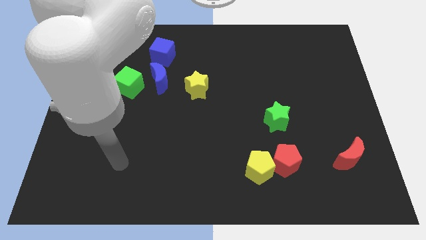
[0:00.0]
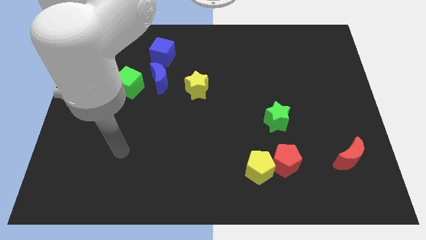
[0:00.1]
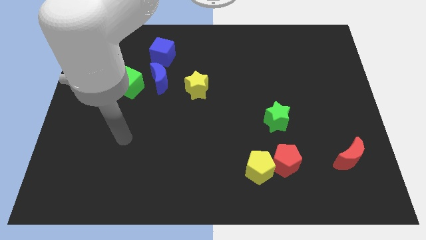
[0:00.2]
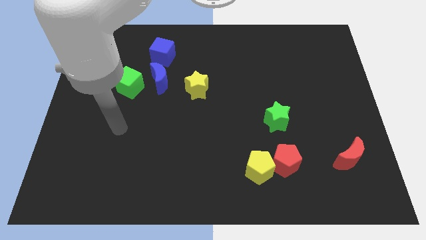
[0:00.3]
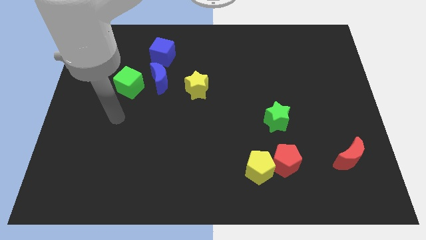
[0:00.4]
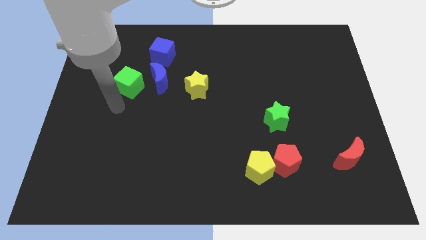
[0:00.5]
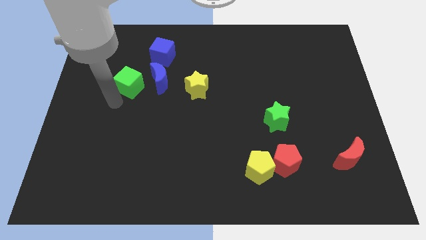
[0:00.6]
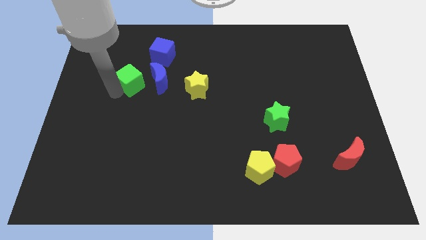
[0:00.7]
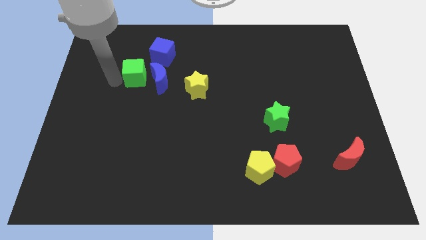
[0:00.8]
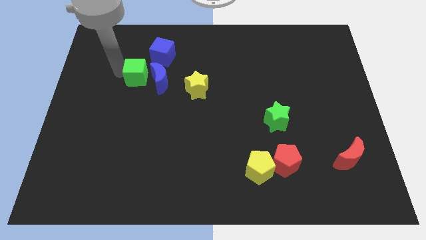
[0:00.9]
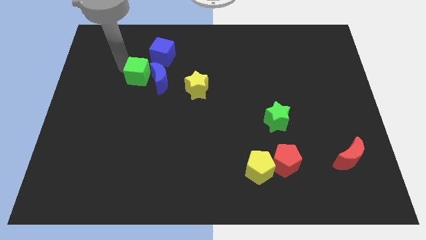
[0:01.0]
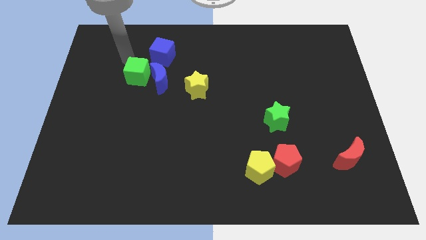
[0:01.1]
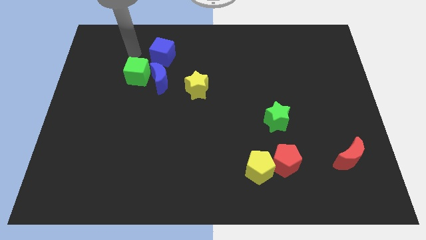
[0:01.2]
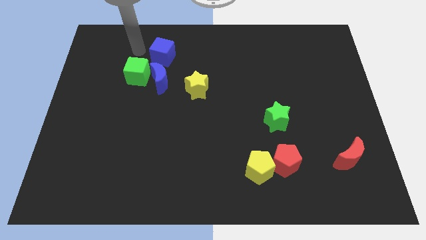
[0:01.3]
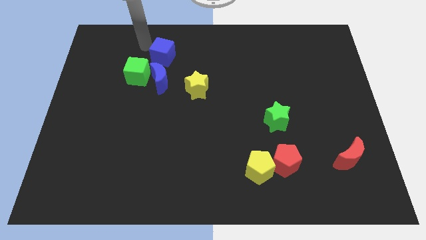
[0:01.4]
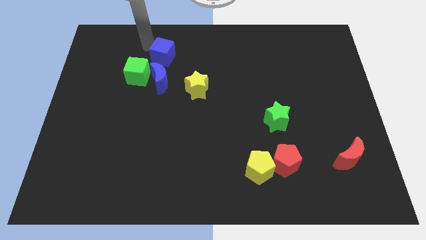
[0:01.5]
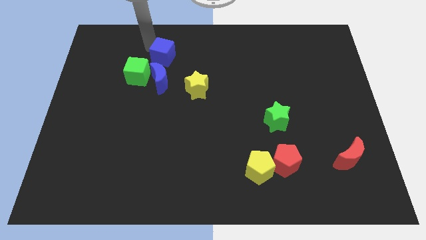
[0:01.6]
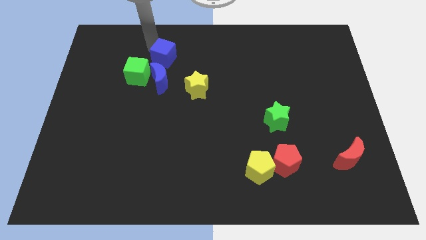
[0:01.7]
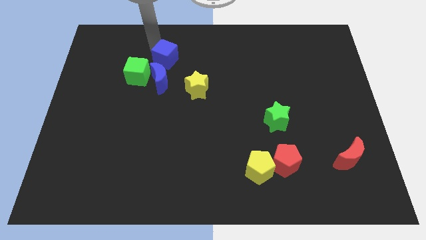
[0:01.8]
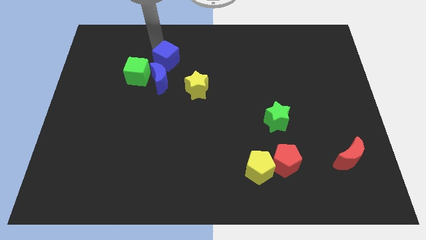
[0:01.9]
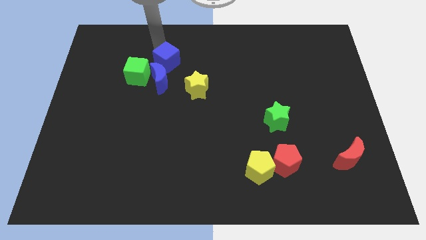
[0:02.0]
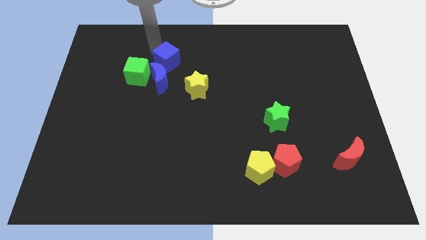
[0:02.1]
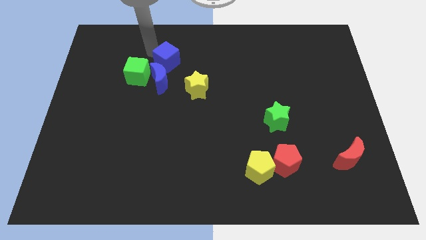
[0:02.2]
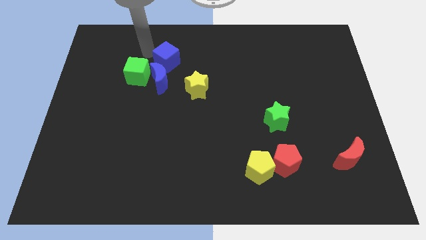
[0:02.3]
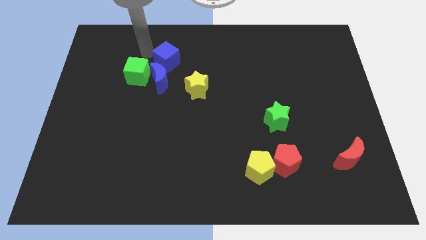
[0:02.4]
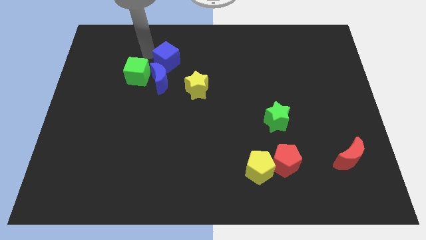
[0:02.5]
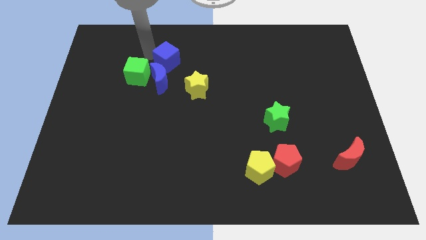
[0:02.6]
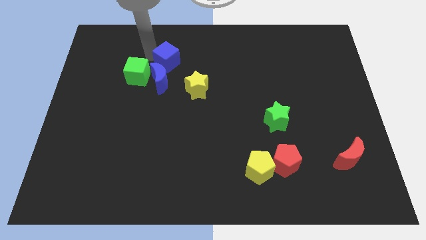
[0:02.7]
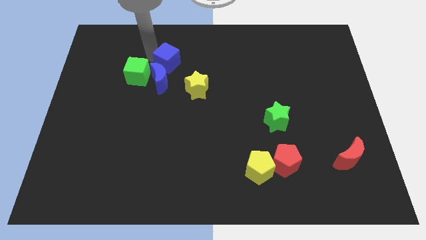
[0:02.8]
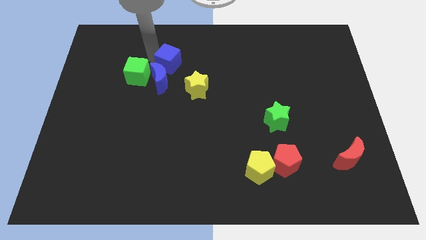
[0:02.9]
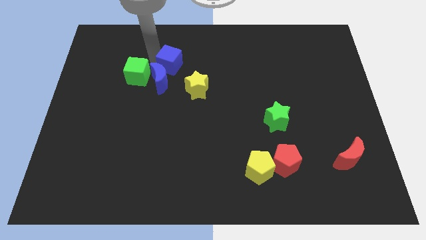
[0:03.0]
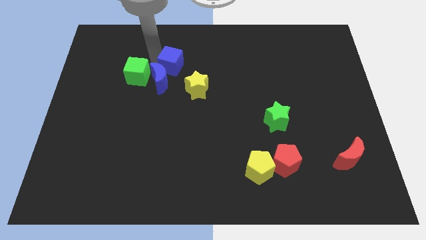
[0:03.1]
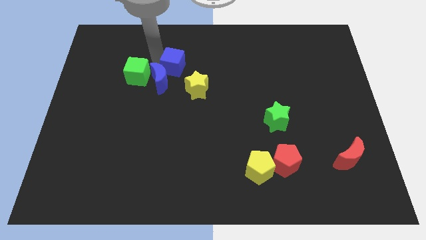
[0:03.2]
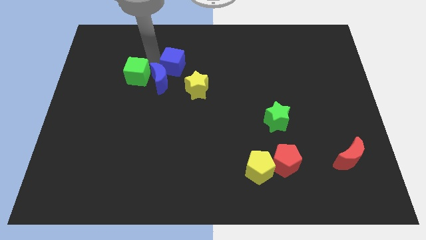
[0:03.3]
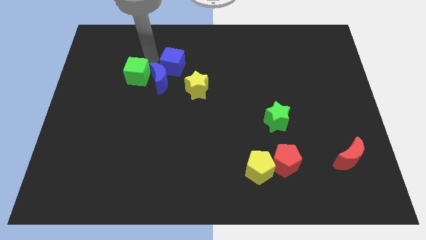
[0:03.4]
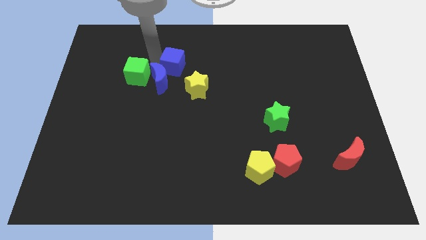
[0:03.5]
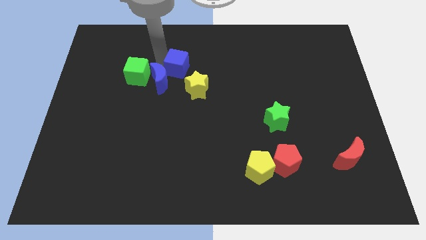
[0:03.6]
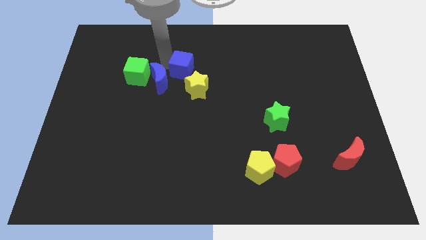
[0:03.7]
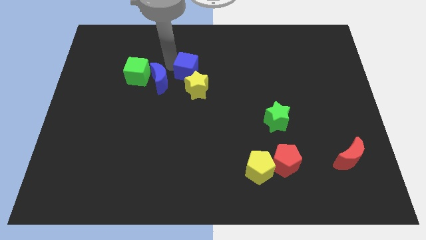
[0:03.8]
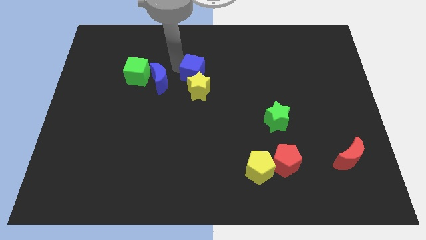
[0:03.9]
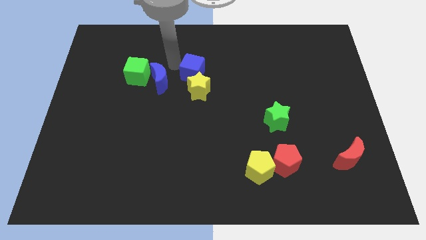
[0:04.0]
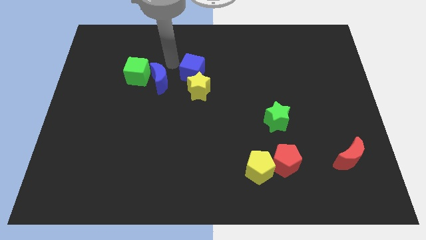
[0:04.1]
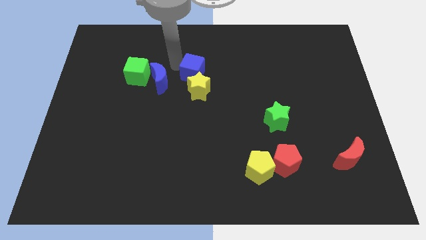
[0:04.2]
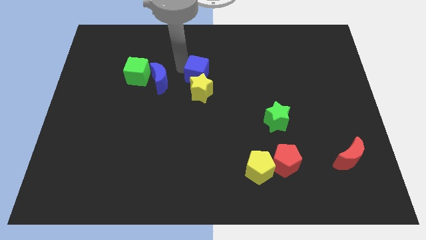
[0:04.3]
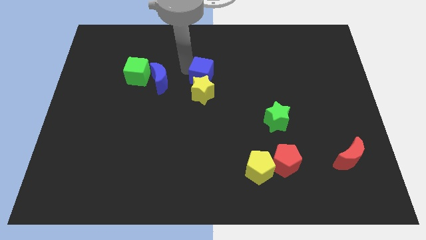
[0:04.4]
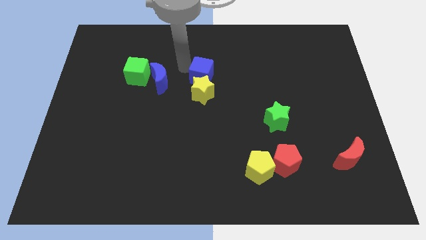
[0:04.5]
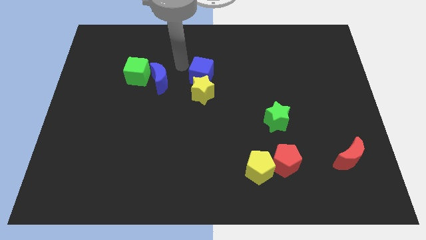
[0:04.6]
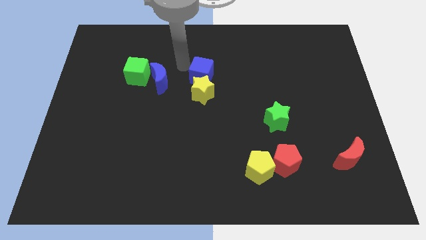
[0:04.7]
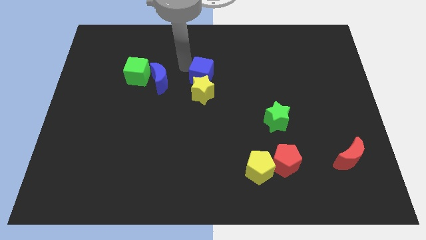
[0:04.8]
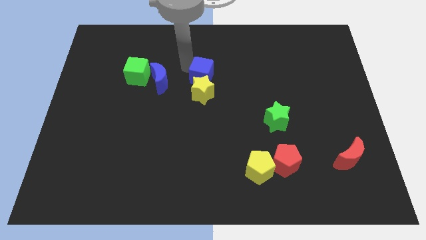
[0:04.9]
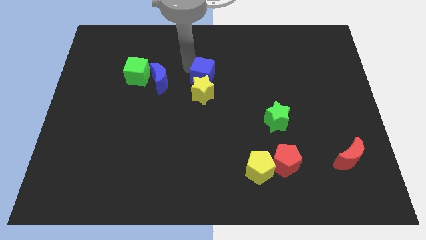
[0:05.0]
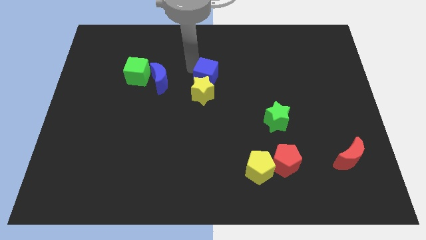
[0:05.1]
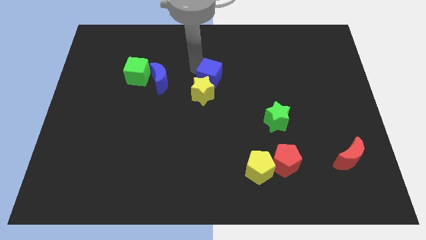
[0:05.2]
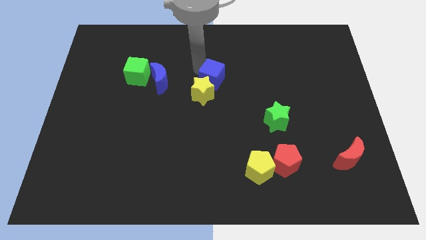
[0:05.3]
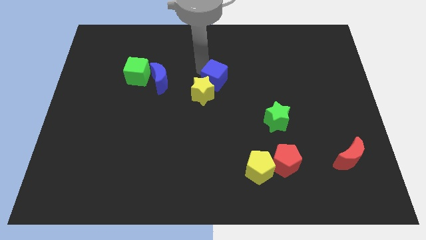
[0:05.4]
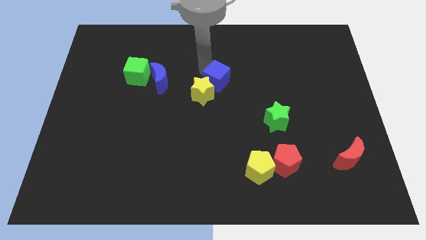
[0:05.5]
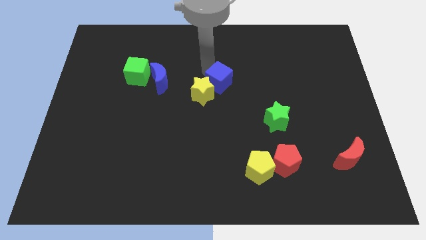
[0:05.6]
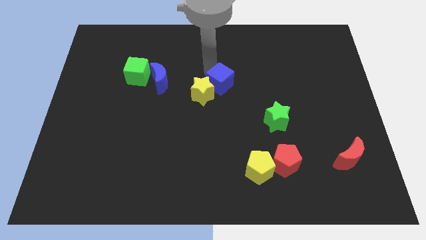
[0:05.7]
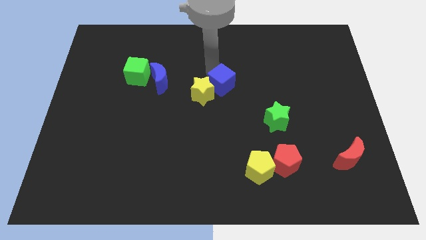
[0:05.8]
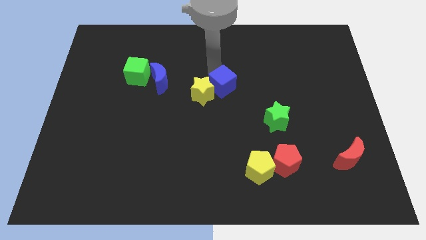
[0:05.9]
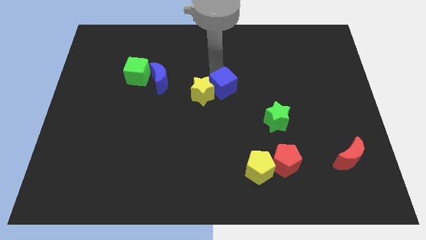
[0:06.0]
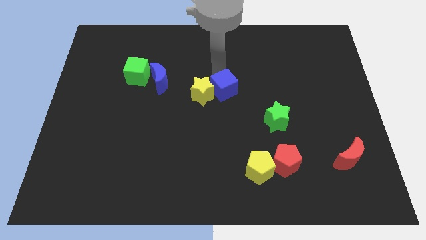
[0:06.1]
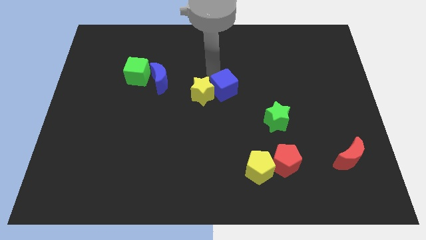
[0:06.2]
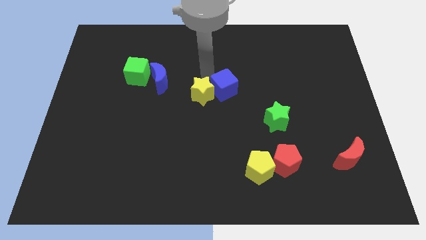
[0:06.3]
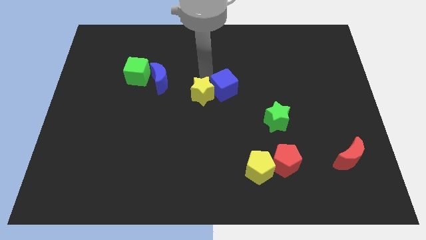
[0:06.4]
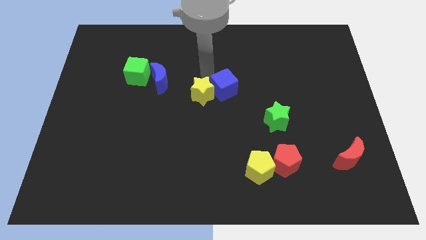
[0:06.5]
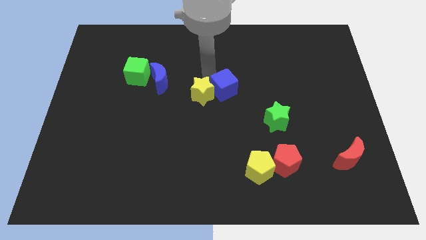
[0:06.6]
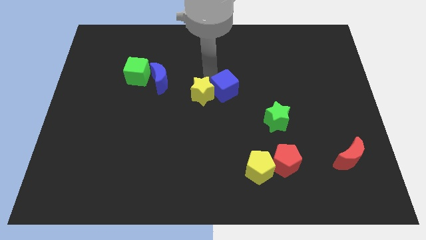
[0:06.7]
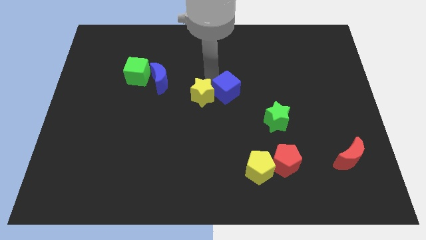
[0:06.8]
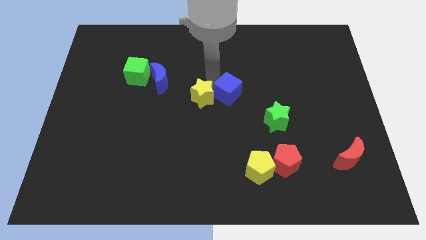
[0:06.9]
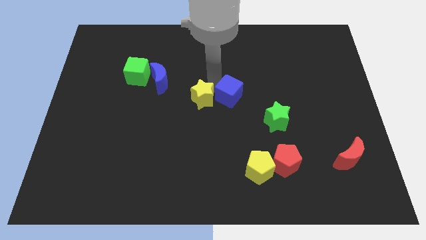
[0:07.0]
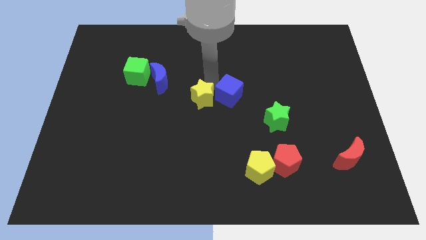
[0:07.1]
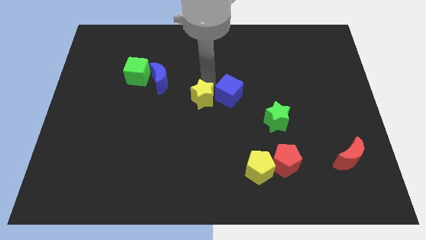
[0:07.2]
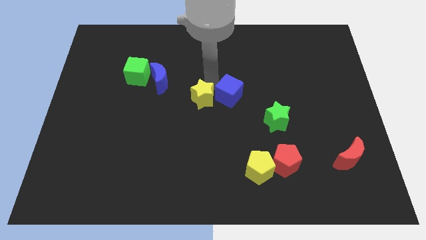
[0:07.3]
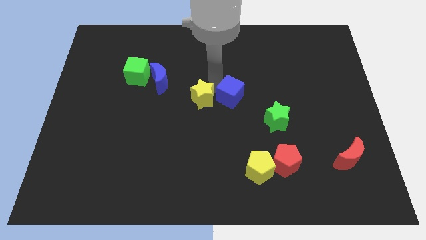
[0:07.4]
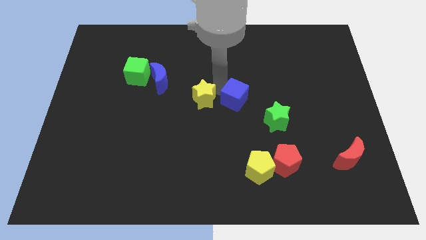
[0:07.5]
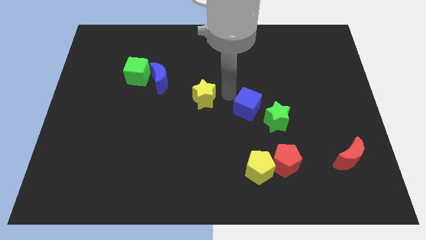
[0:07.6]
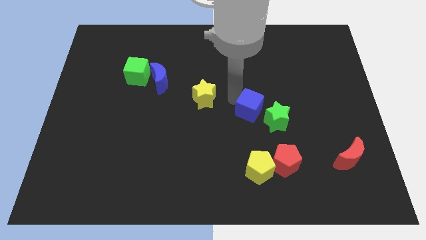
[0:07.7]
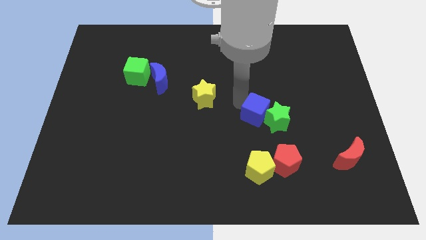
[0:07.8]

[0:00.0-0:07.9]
put the blue cube next to the green star
